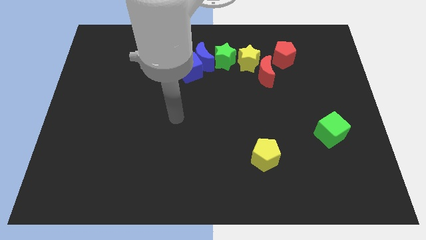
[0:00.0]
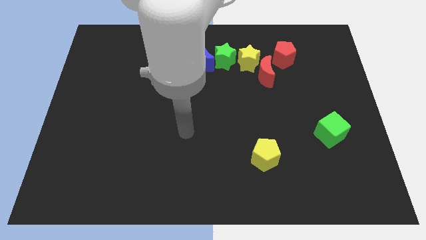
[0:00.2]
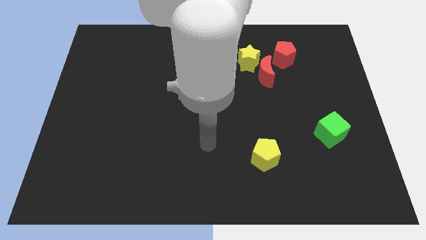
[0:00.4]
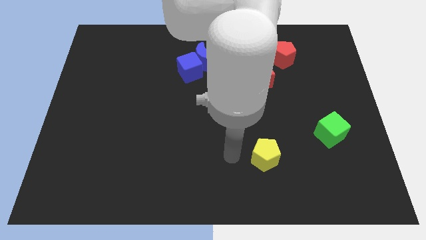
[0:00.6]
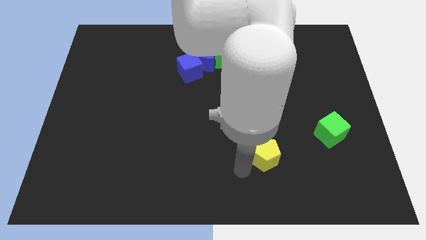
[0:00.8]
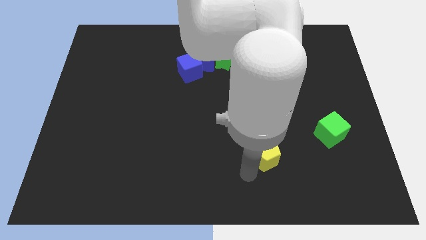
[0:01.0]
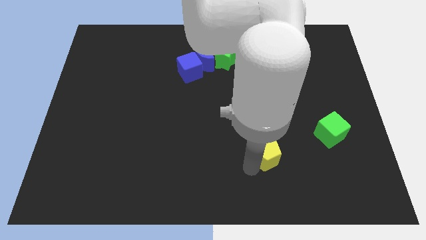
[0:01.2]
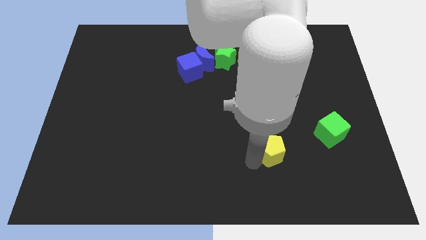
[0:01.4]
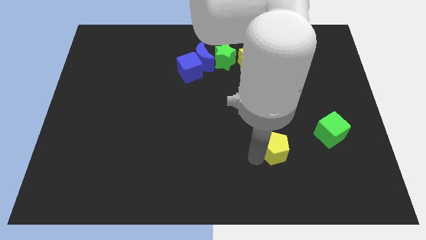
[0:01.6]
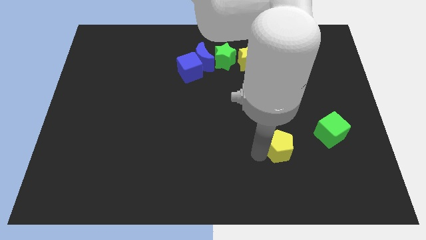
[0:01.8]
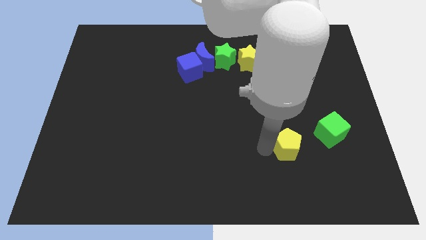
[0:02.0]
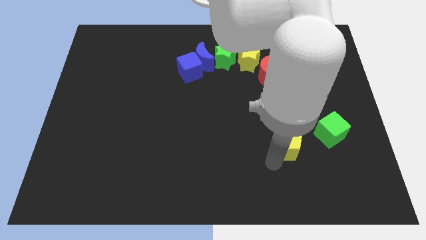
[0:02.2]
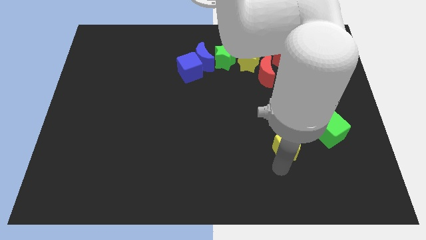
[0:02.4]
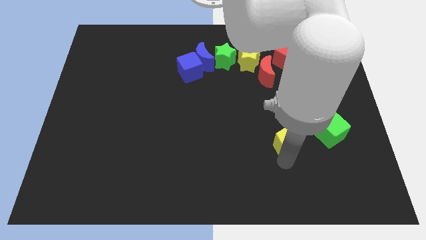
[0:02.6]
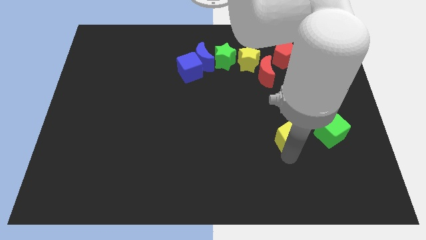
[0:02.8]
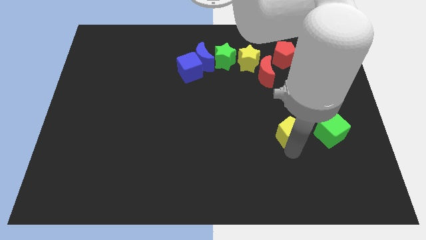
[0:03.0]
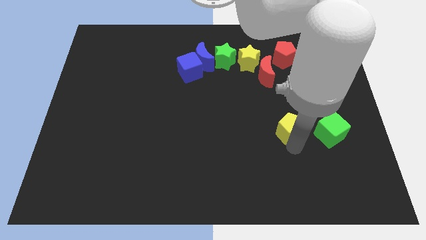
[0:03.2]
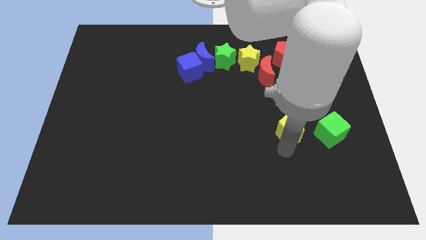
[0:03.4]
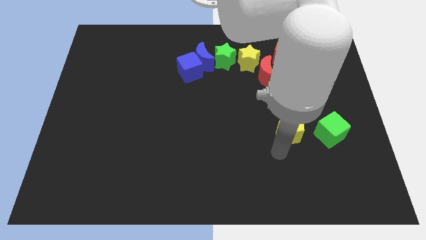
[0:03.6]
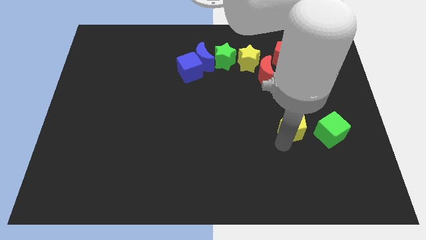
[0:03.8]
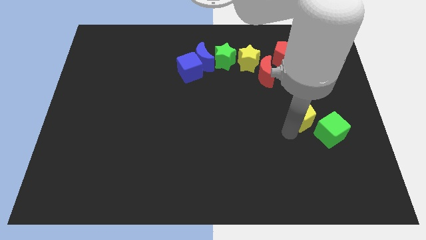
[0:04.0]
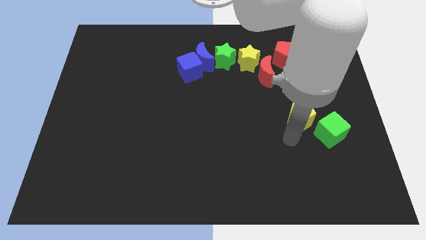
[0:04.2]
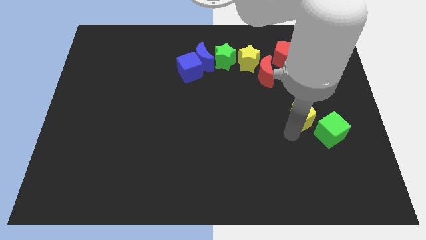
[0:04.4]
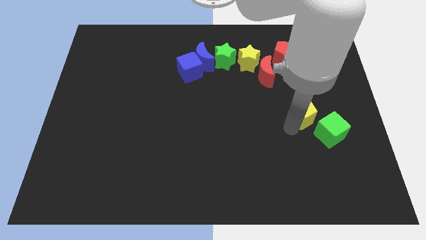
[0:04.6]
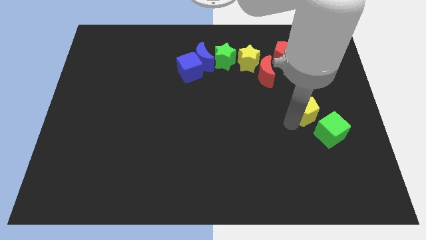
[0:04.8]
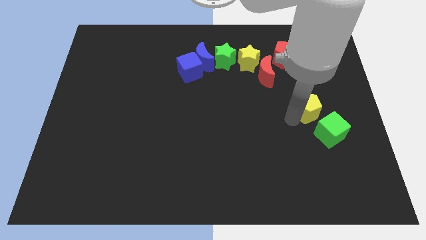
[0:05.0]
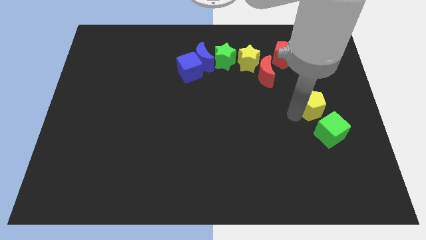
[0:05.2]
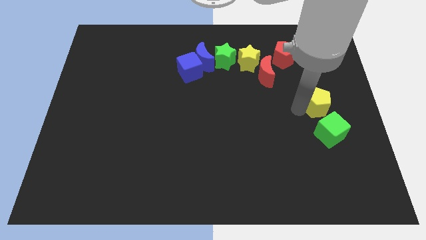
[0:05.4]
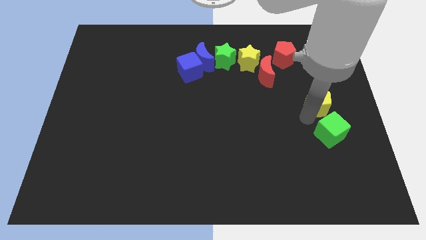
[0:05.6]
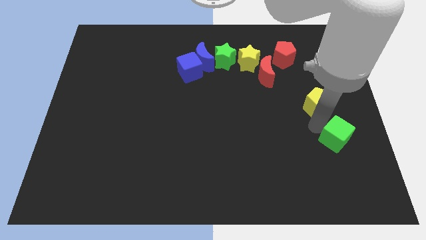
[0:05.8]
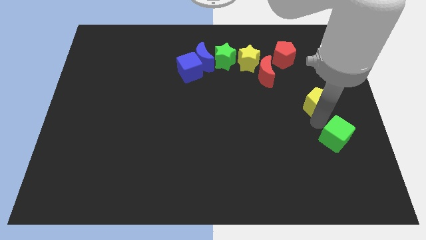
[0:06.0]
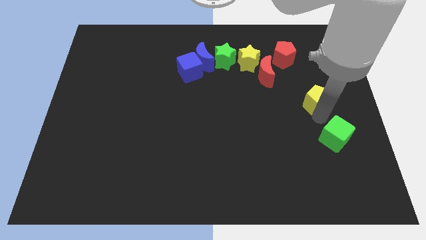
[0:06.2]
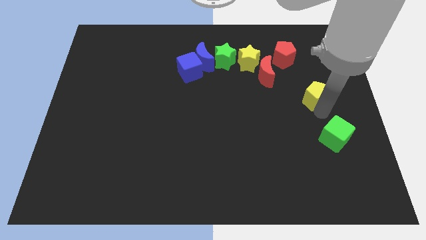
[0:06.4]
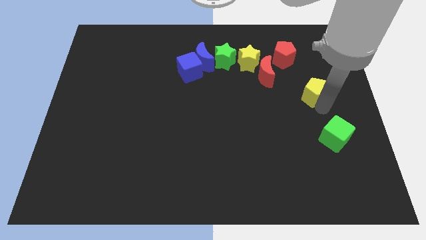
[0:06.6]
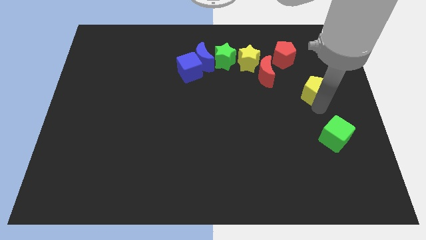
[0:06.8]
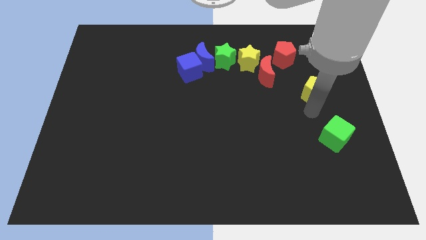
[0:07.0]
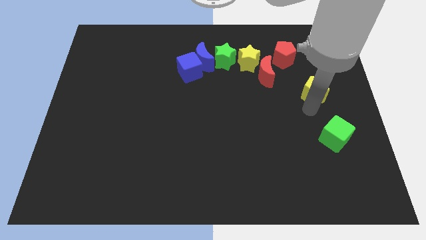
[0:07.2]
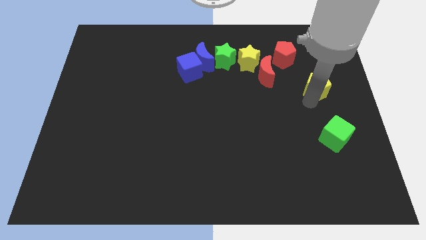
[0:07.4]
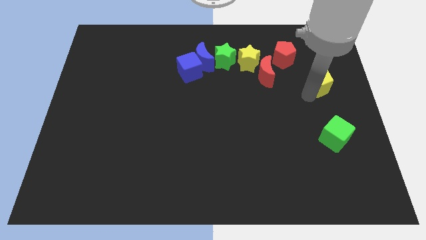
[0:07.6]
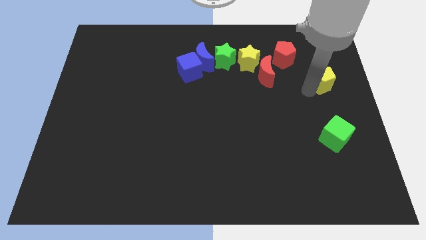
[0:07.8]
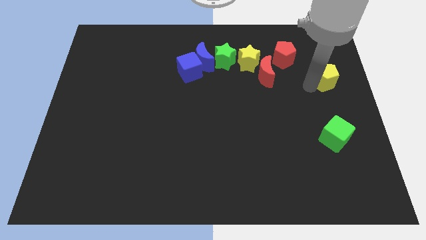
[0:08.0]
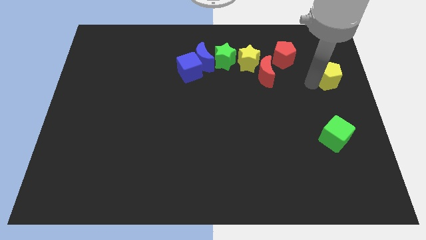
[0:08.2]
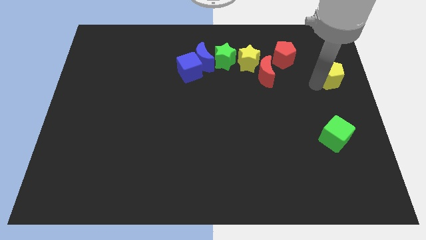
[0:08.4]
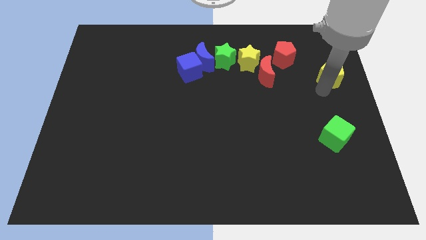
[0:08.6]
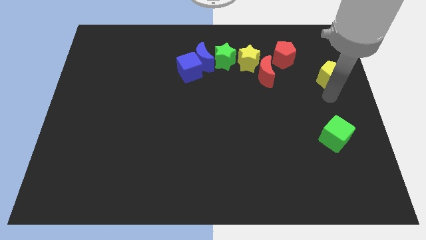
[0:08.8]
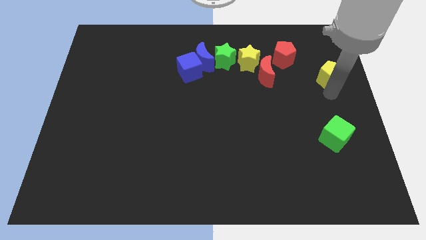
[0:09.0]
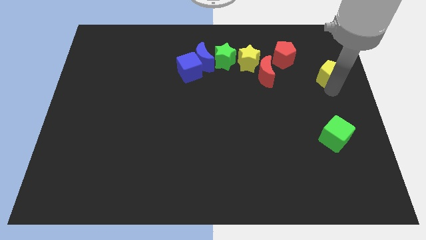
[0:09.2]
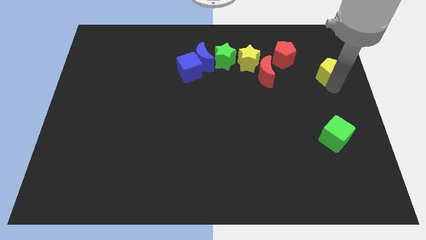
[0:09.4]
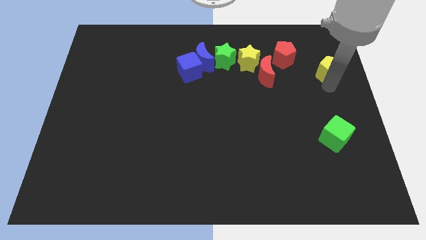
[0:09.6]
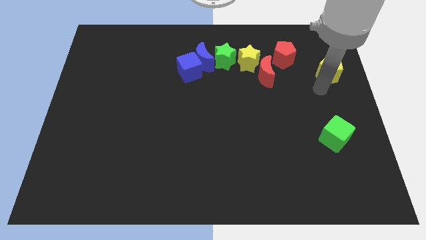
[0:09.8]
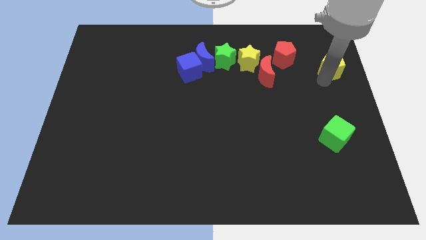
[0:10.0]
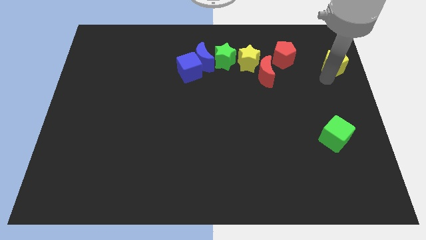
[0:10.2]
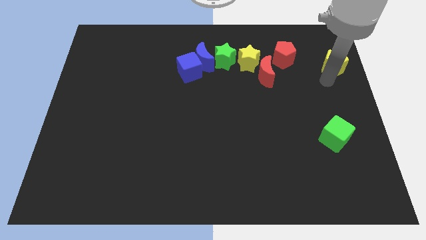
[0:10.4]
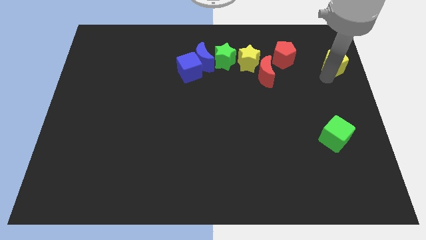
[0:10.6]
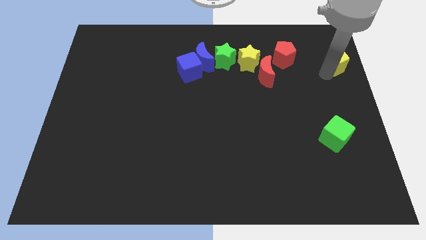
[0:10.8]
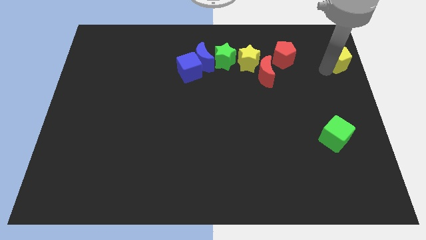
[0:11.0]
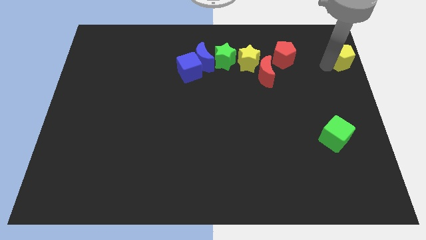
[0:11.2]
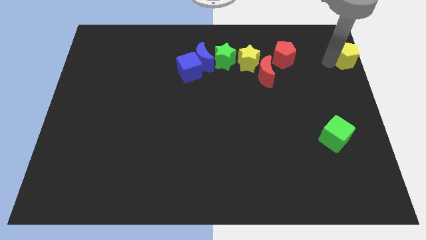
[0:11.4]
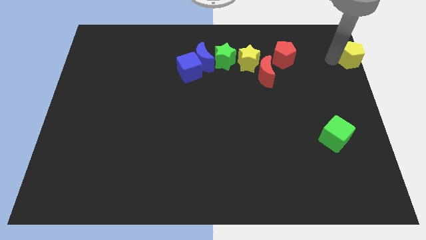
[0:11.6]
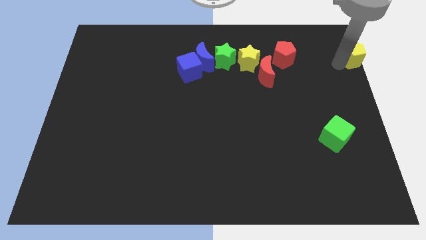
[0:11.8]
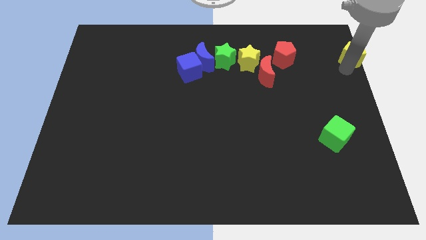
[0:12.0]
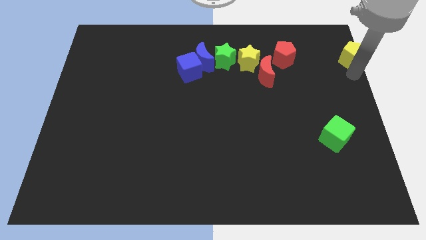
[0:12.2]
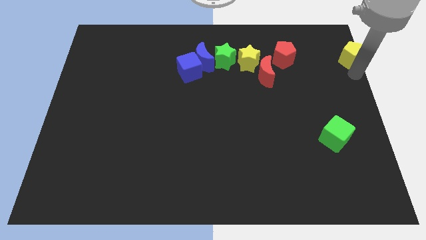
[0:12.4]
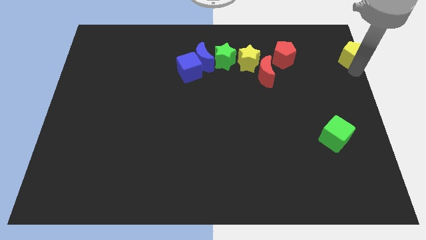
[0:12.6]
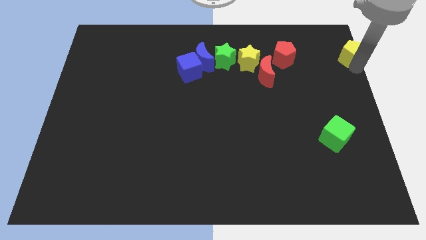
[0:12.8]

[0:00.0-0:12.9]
push the yellow pentagon to the top right

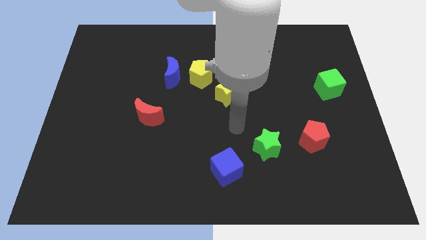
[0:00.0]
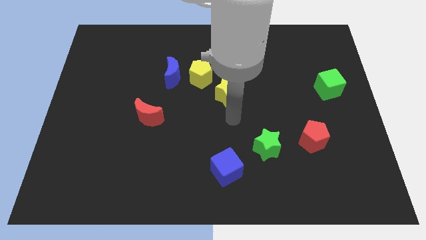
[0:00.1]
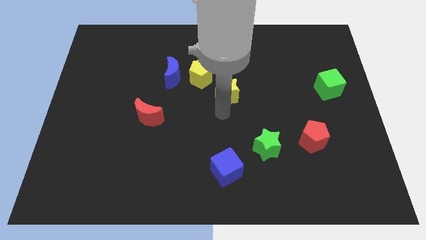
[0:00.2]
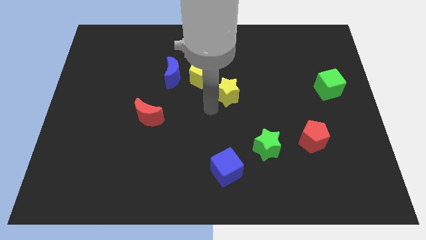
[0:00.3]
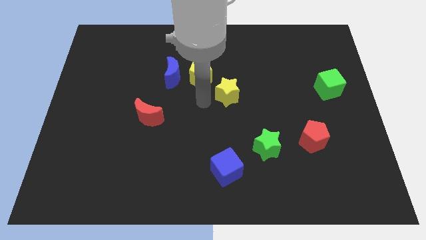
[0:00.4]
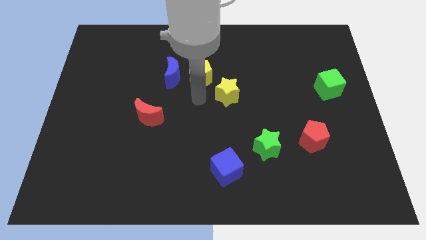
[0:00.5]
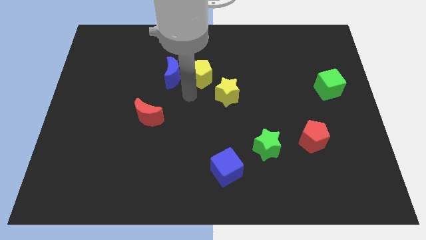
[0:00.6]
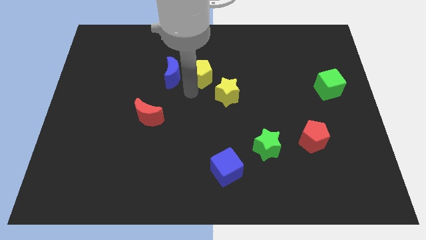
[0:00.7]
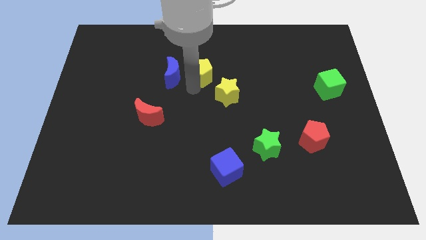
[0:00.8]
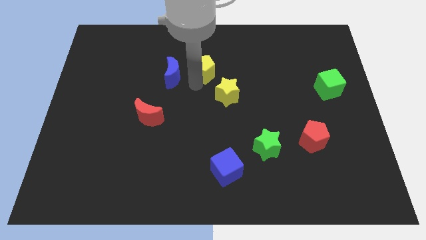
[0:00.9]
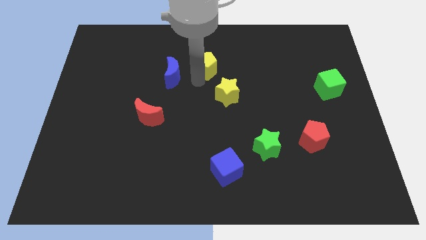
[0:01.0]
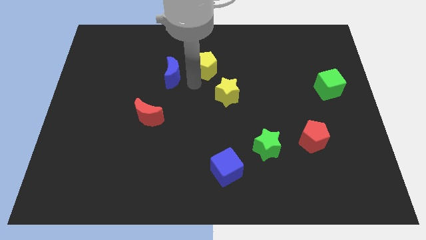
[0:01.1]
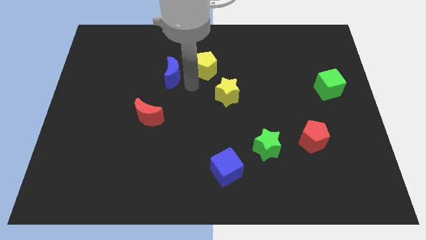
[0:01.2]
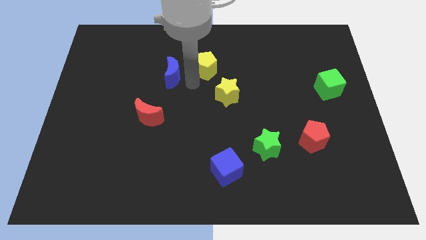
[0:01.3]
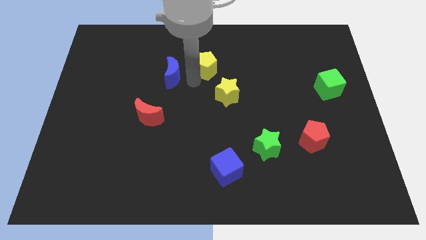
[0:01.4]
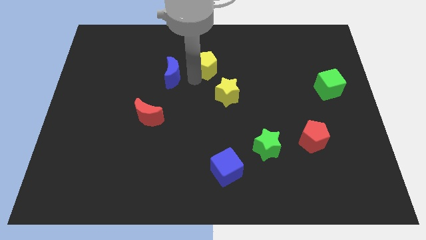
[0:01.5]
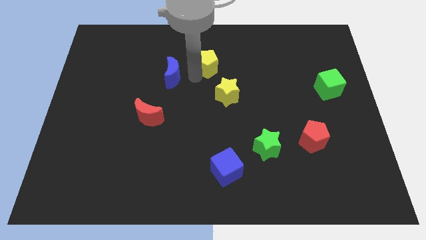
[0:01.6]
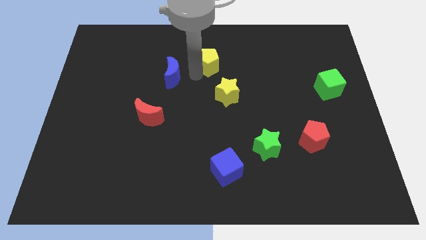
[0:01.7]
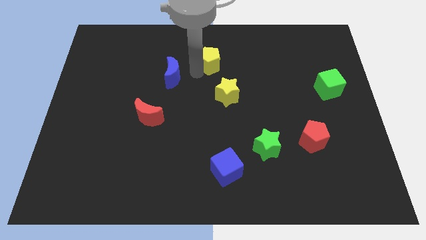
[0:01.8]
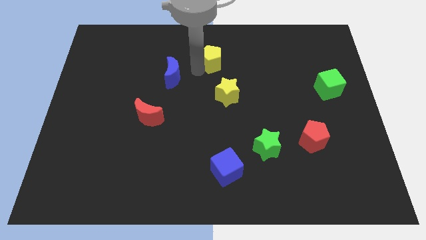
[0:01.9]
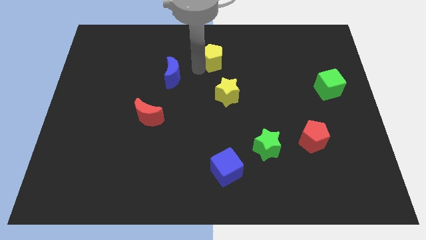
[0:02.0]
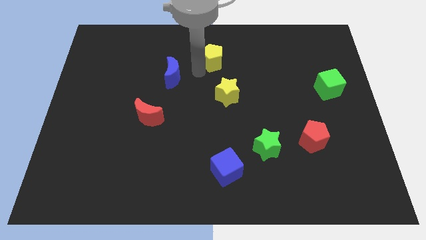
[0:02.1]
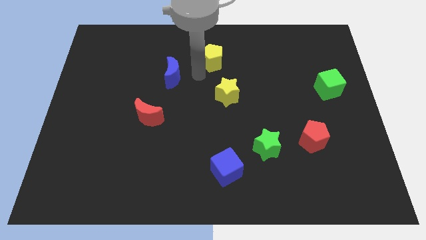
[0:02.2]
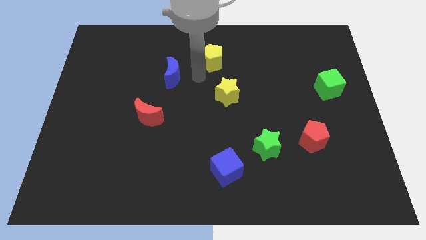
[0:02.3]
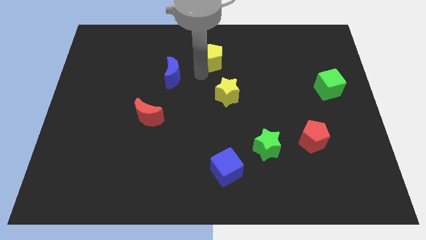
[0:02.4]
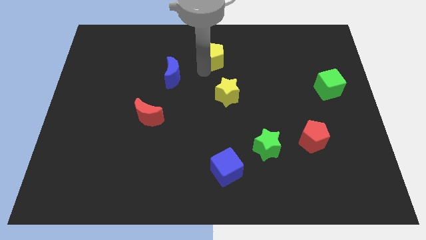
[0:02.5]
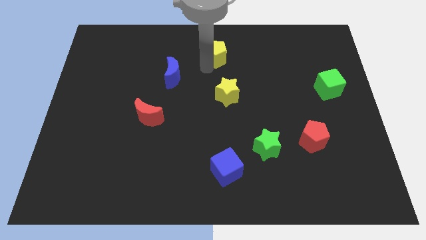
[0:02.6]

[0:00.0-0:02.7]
put the yellow pentagon to the top side
